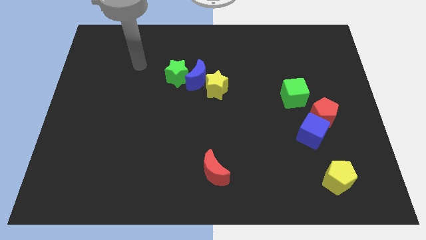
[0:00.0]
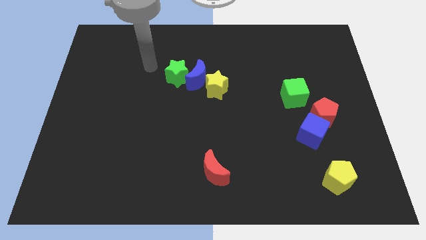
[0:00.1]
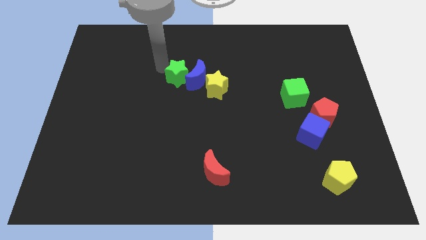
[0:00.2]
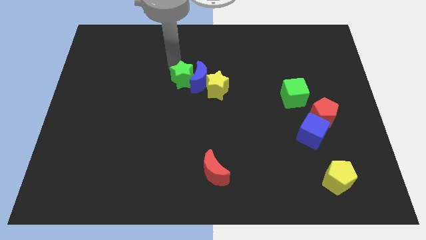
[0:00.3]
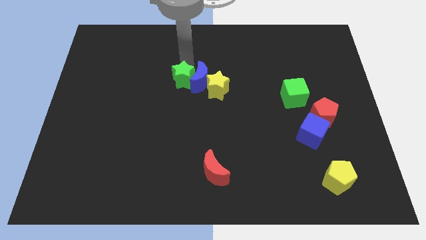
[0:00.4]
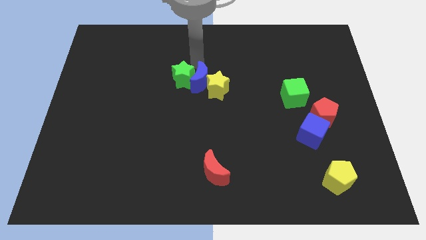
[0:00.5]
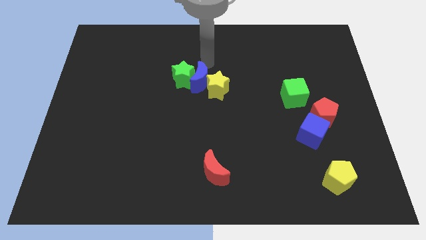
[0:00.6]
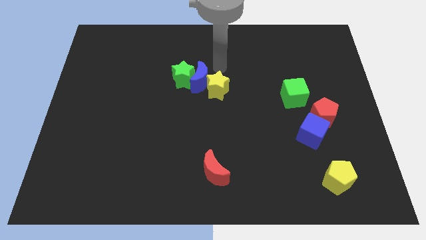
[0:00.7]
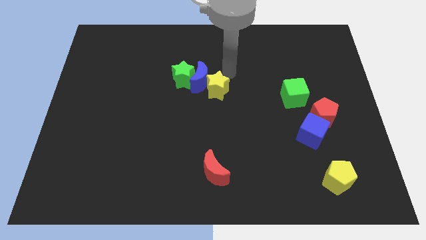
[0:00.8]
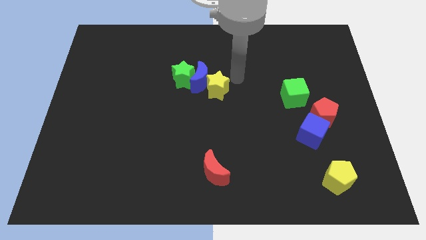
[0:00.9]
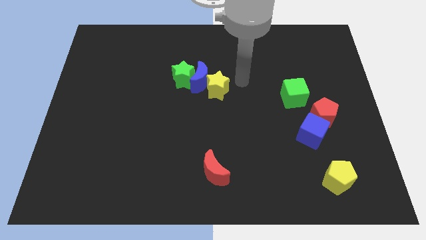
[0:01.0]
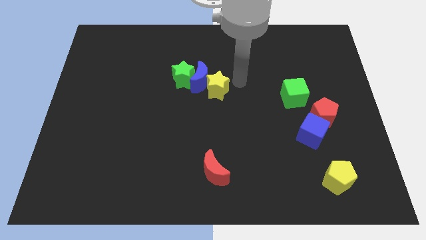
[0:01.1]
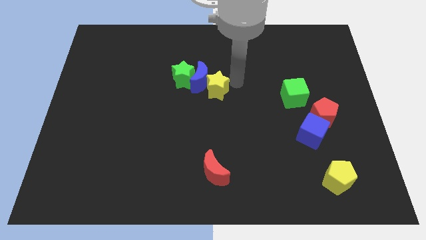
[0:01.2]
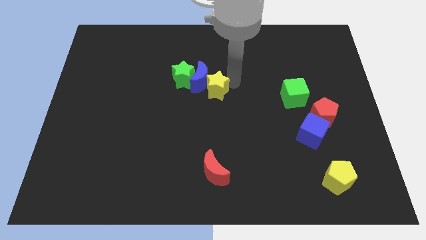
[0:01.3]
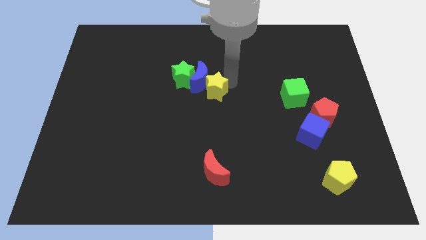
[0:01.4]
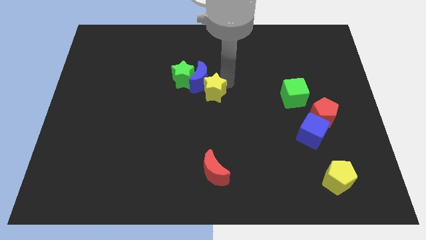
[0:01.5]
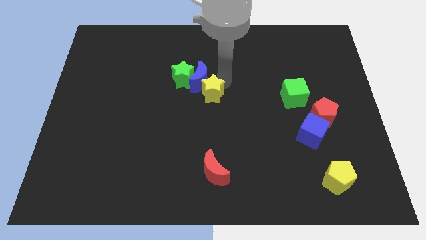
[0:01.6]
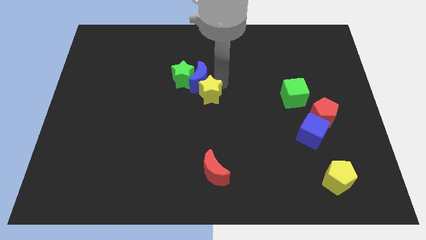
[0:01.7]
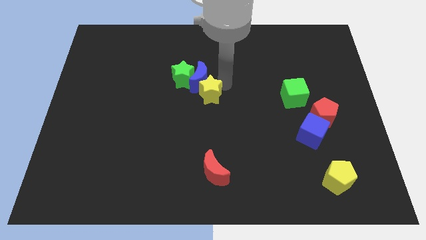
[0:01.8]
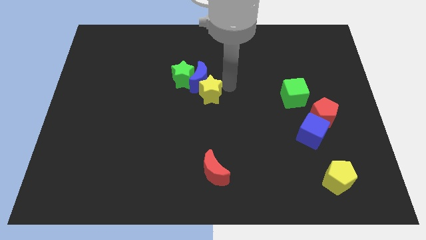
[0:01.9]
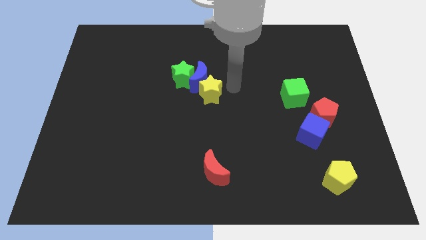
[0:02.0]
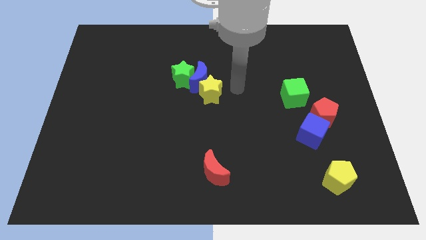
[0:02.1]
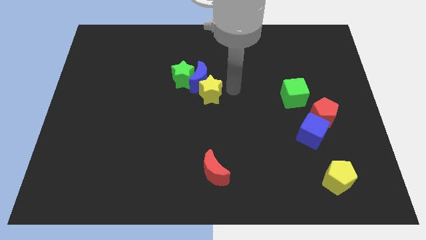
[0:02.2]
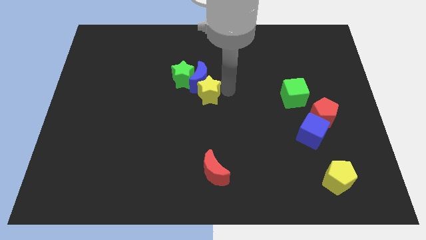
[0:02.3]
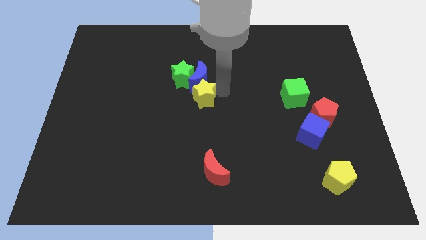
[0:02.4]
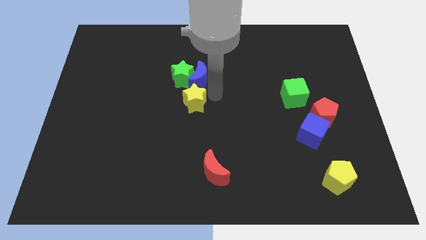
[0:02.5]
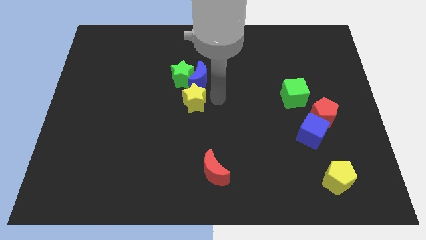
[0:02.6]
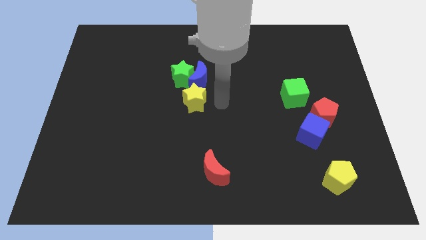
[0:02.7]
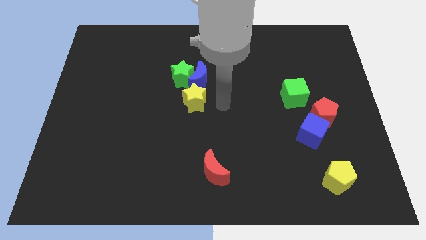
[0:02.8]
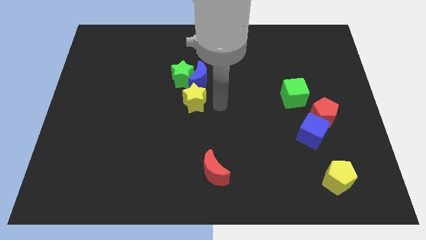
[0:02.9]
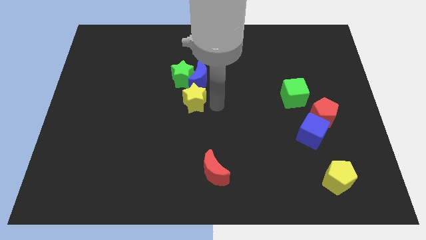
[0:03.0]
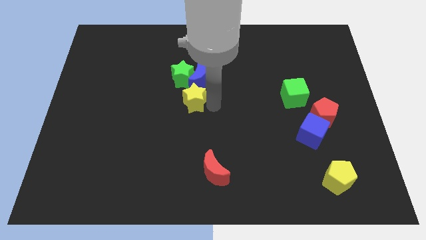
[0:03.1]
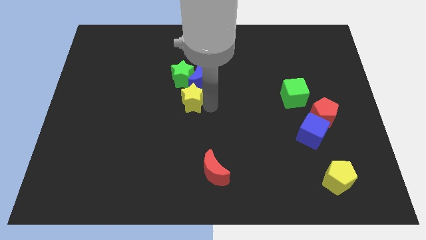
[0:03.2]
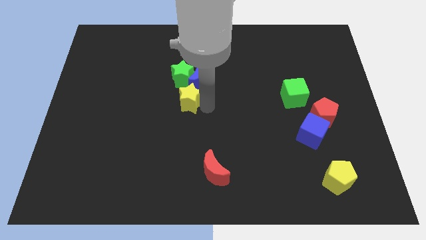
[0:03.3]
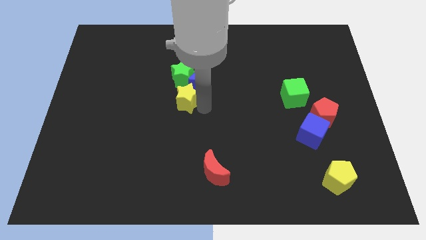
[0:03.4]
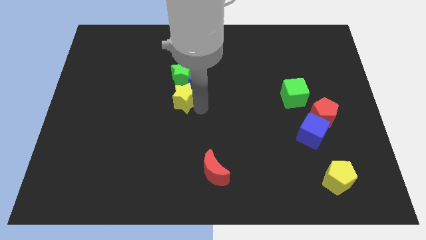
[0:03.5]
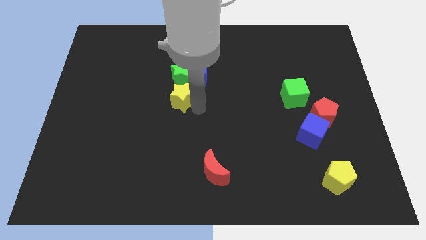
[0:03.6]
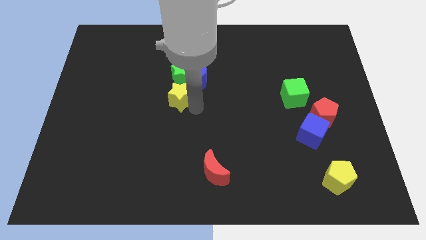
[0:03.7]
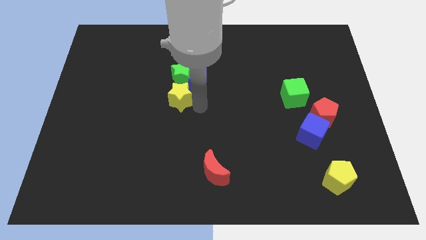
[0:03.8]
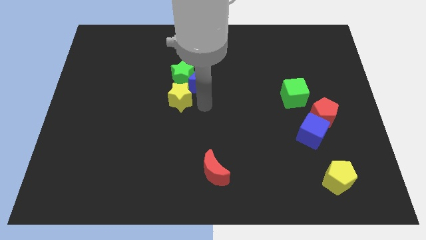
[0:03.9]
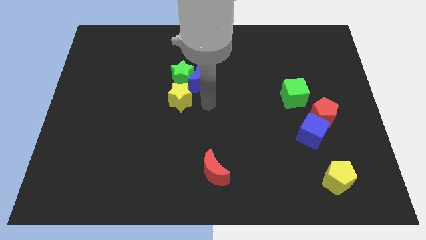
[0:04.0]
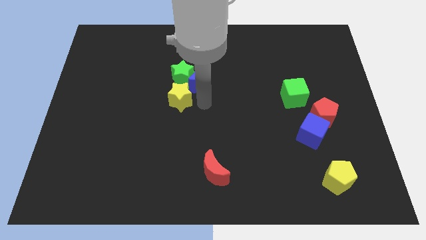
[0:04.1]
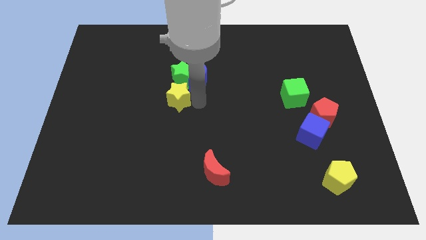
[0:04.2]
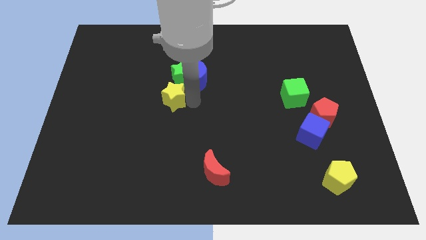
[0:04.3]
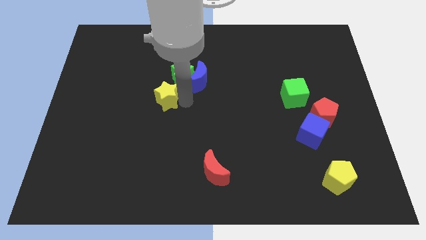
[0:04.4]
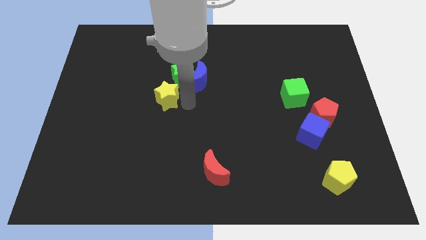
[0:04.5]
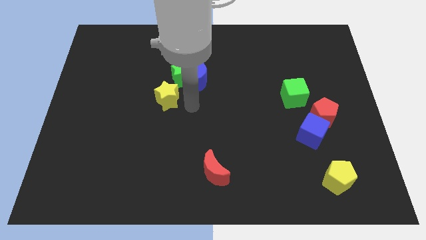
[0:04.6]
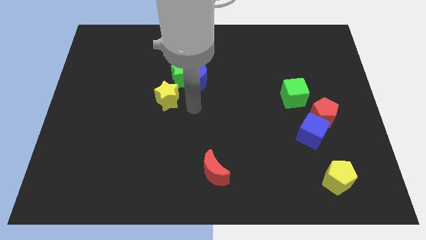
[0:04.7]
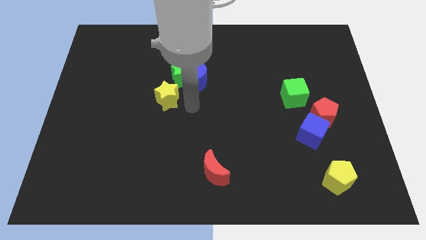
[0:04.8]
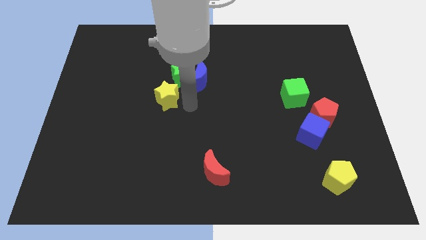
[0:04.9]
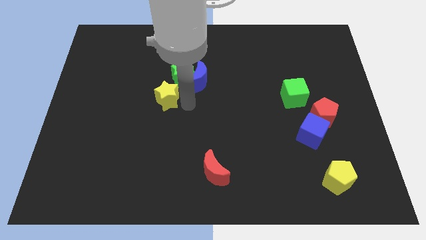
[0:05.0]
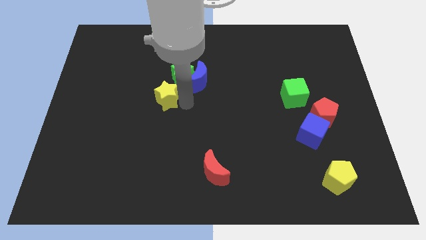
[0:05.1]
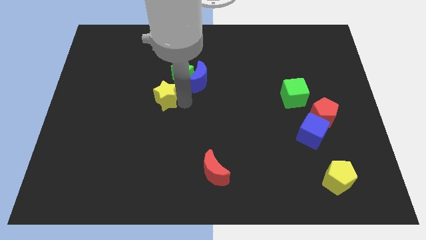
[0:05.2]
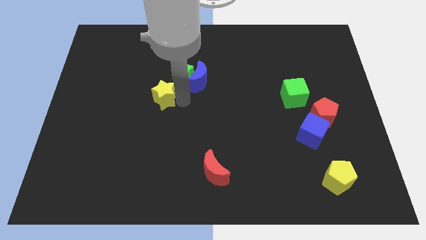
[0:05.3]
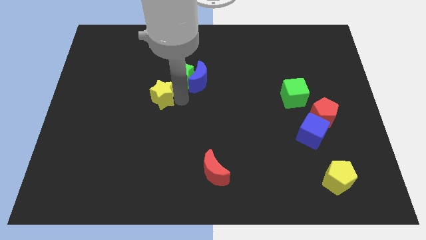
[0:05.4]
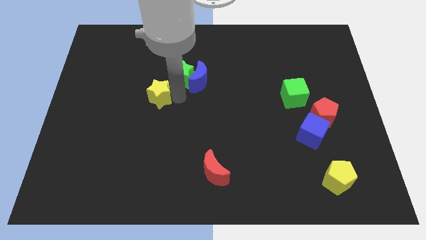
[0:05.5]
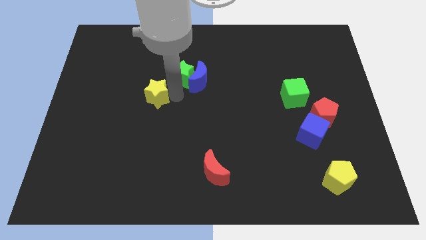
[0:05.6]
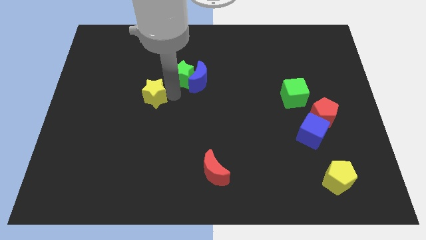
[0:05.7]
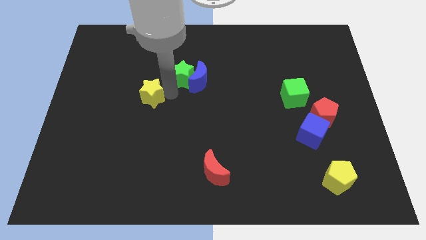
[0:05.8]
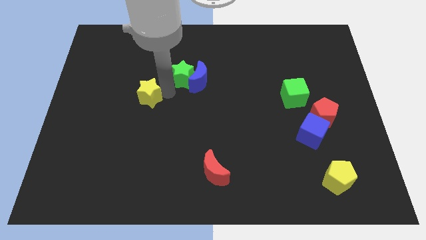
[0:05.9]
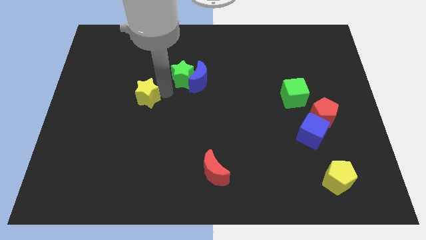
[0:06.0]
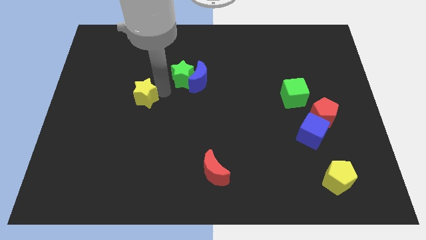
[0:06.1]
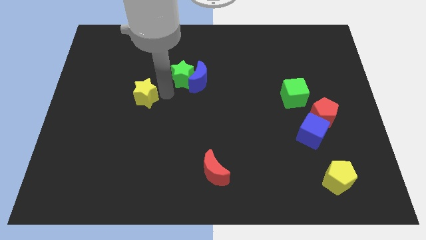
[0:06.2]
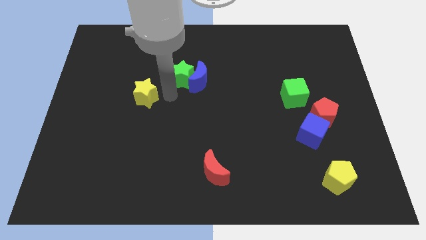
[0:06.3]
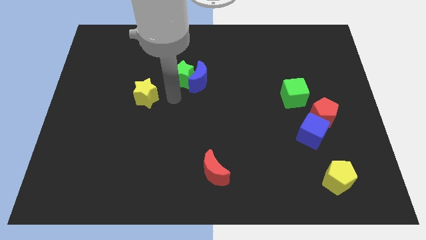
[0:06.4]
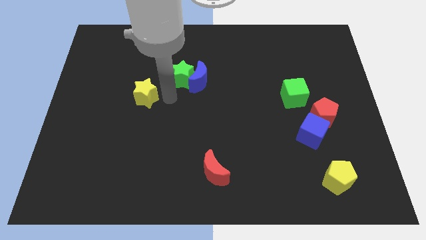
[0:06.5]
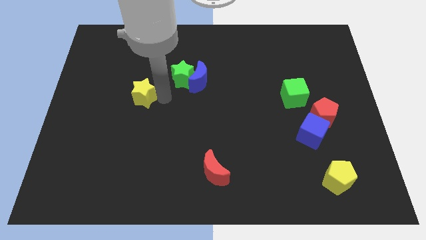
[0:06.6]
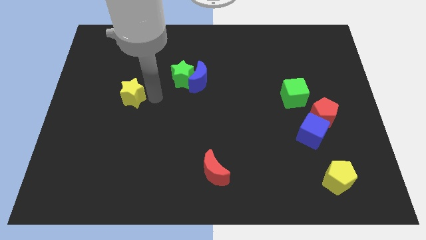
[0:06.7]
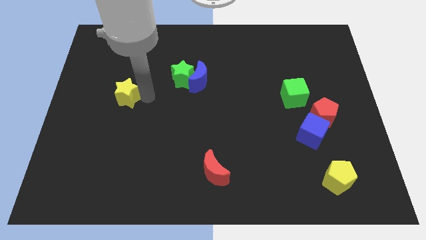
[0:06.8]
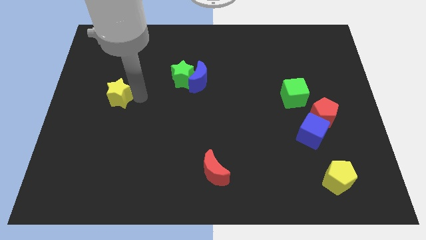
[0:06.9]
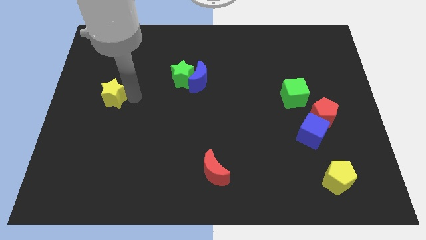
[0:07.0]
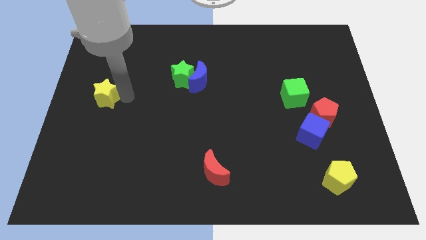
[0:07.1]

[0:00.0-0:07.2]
put the yellow star to the left side of the board
